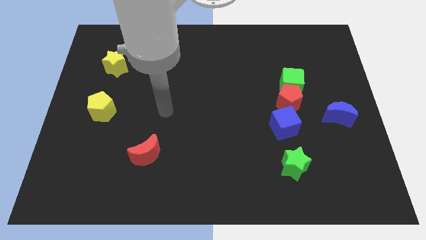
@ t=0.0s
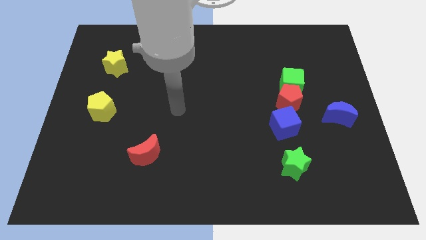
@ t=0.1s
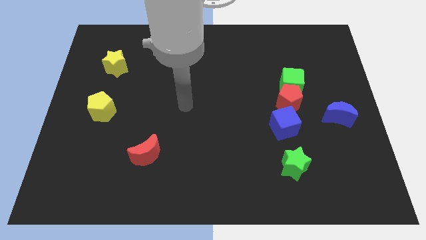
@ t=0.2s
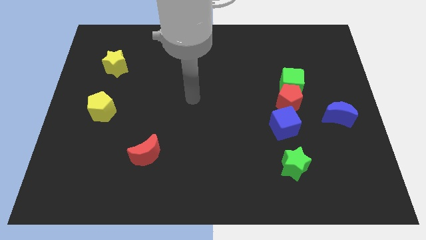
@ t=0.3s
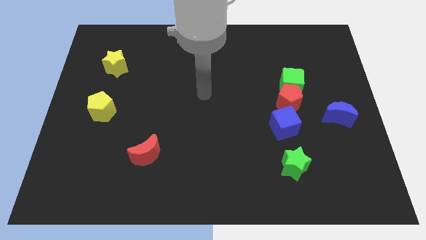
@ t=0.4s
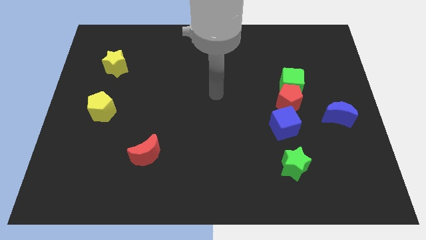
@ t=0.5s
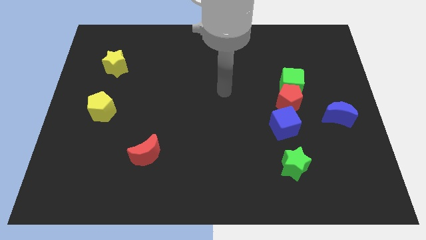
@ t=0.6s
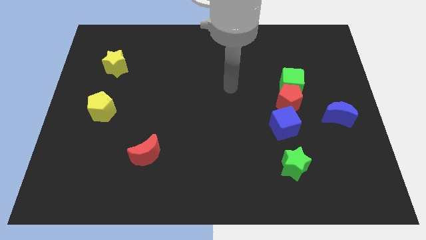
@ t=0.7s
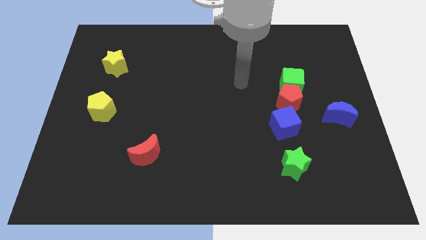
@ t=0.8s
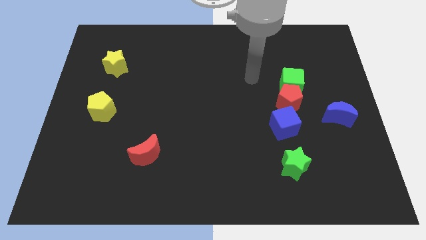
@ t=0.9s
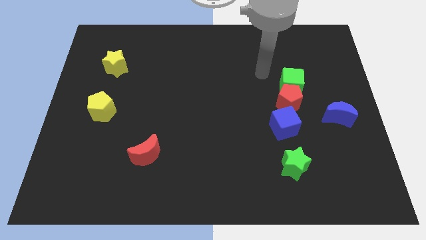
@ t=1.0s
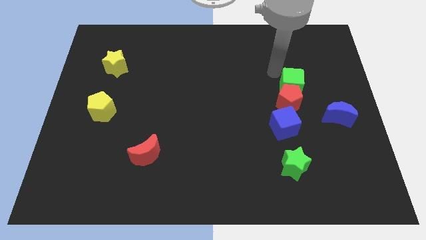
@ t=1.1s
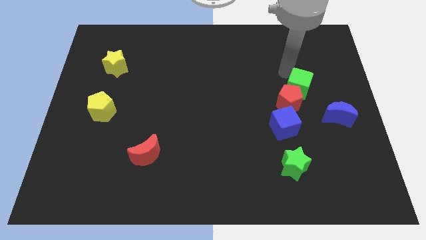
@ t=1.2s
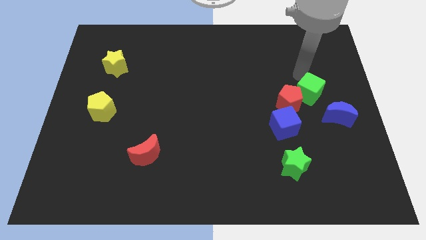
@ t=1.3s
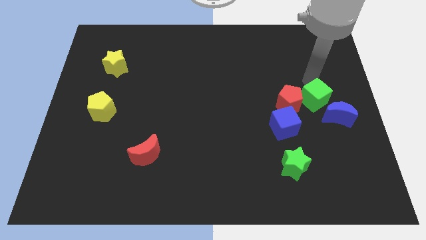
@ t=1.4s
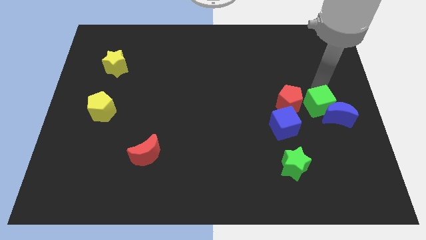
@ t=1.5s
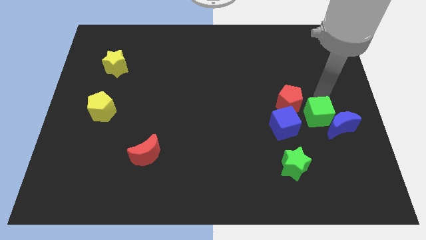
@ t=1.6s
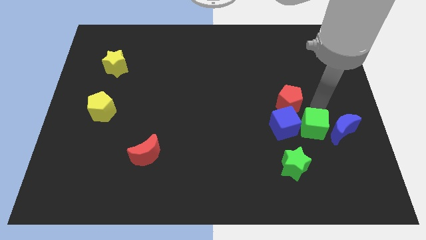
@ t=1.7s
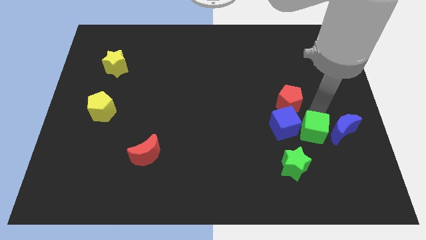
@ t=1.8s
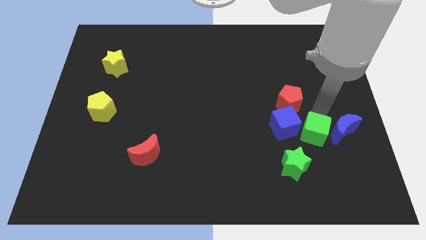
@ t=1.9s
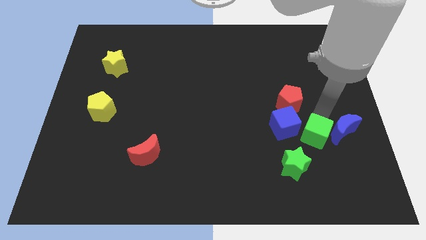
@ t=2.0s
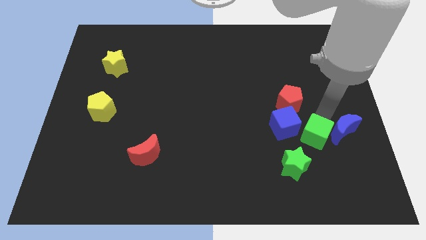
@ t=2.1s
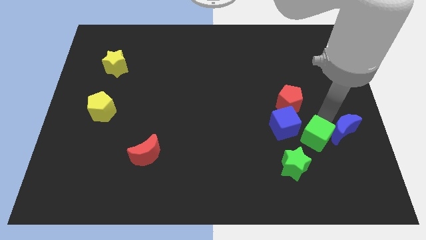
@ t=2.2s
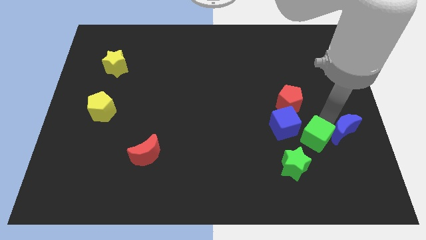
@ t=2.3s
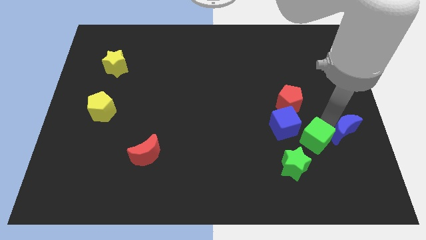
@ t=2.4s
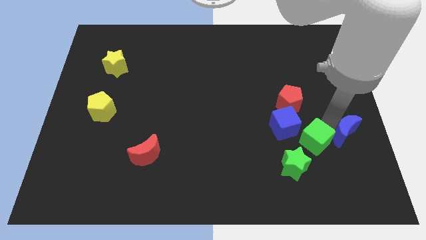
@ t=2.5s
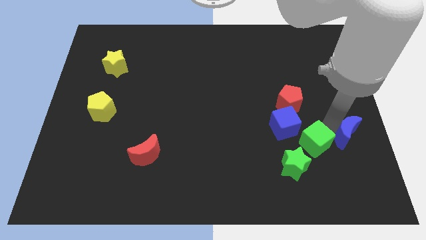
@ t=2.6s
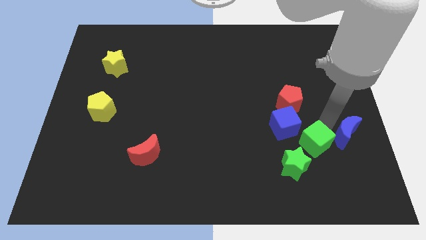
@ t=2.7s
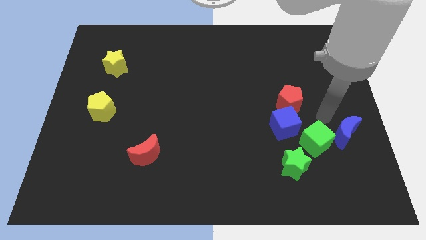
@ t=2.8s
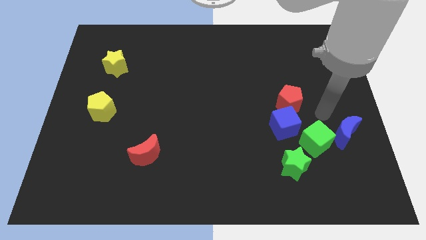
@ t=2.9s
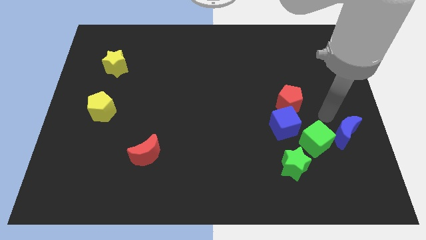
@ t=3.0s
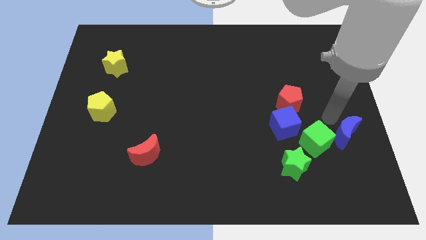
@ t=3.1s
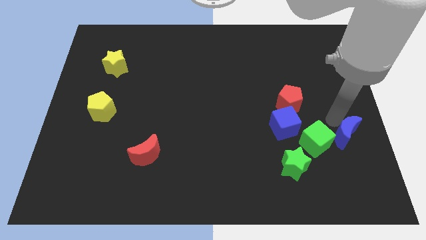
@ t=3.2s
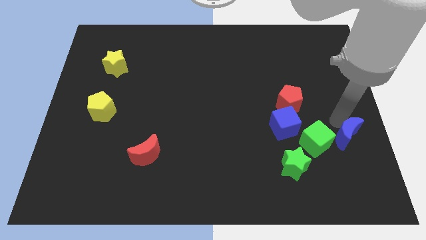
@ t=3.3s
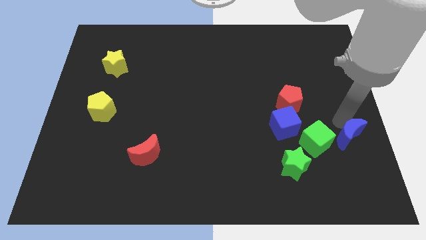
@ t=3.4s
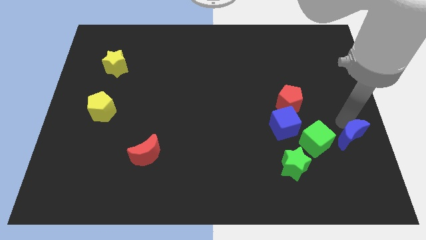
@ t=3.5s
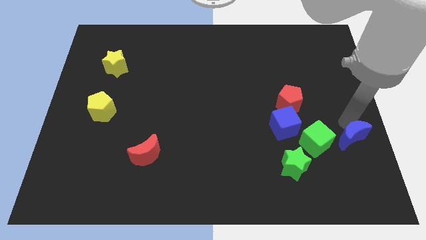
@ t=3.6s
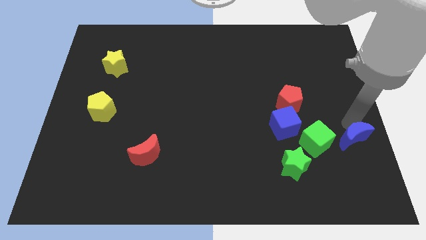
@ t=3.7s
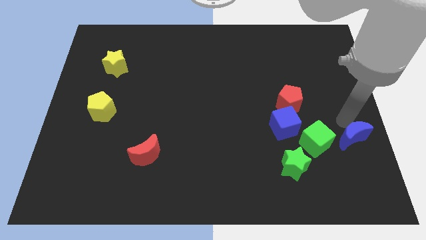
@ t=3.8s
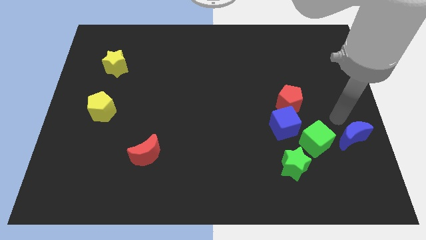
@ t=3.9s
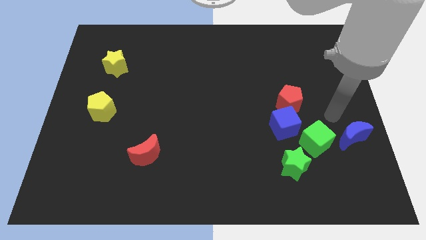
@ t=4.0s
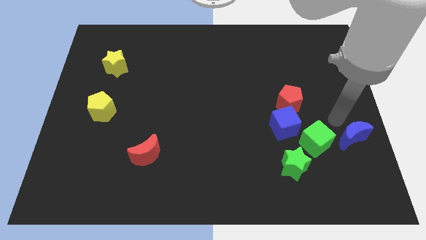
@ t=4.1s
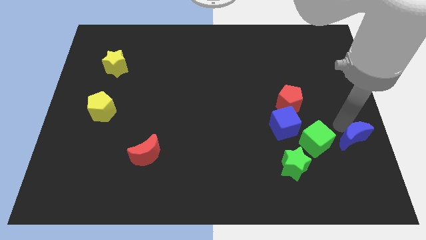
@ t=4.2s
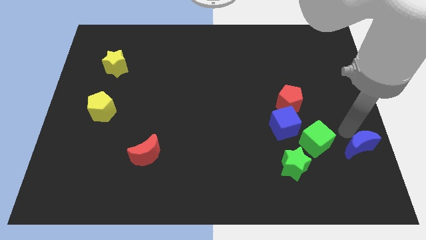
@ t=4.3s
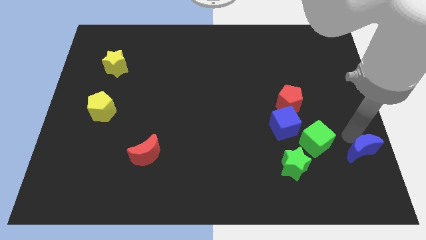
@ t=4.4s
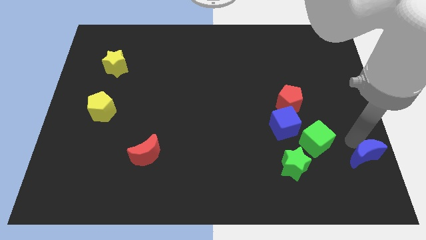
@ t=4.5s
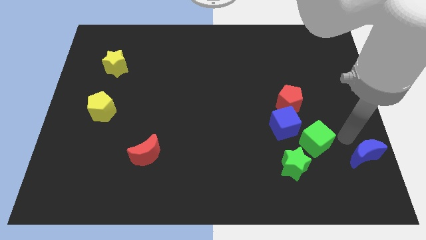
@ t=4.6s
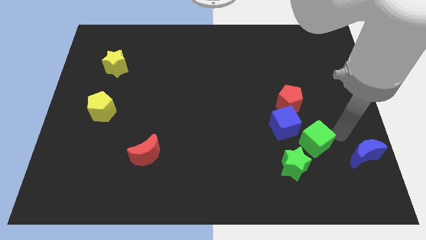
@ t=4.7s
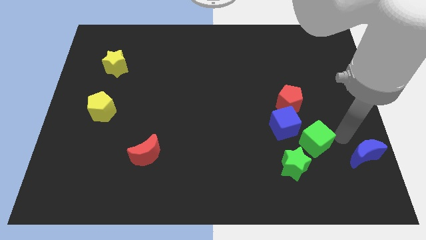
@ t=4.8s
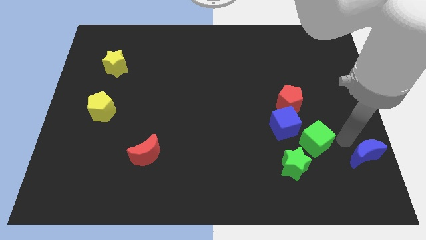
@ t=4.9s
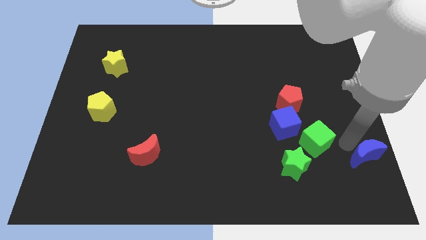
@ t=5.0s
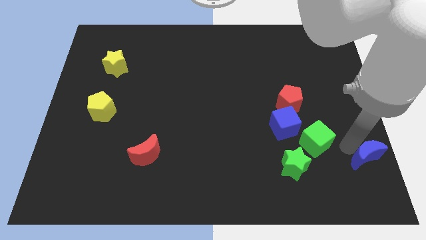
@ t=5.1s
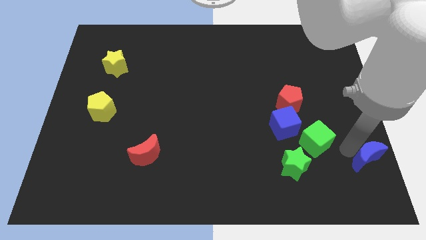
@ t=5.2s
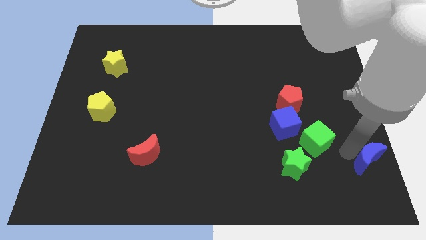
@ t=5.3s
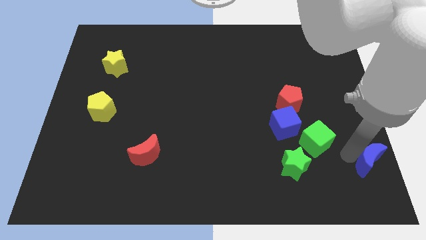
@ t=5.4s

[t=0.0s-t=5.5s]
push the blue moon to the lower right corner

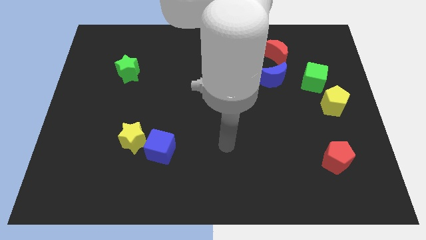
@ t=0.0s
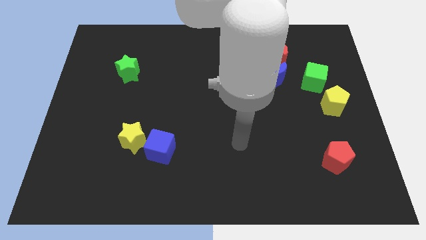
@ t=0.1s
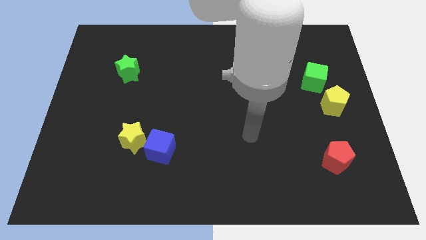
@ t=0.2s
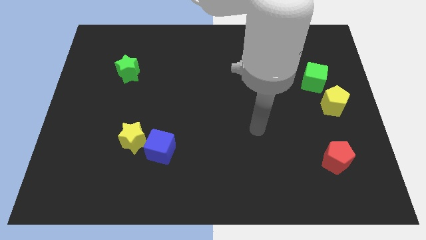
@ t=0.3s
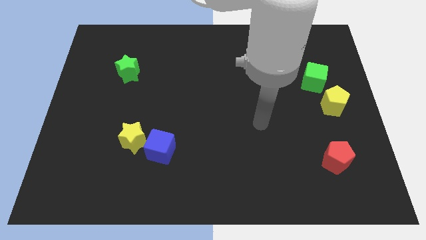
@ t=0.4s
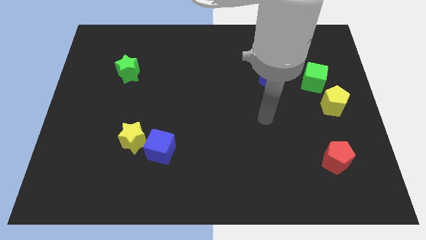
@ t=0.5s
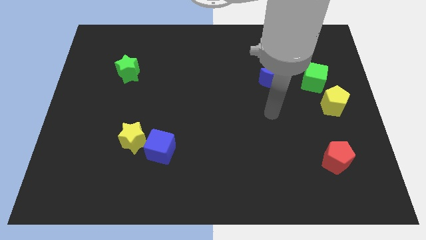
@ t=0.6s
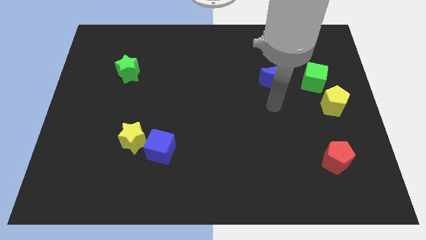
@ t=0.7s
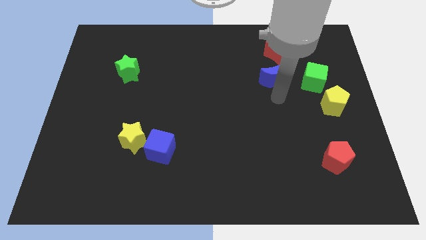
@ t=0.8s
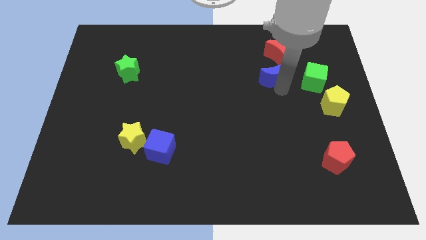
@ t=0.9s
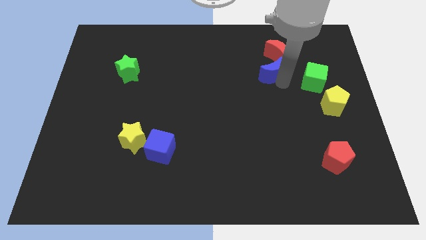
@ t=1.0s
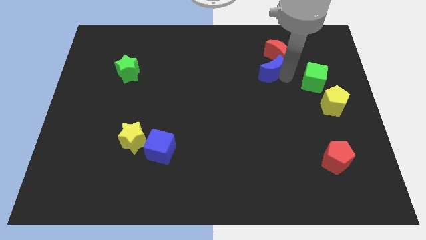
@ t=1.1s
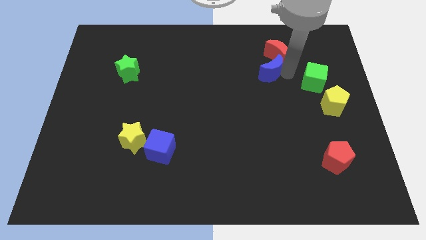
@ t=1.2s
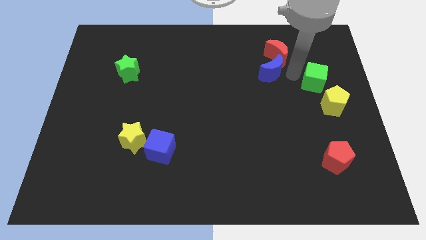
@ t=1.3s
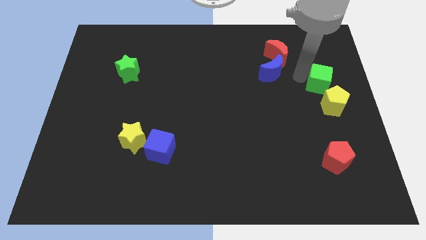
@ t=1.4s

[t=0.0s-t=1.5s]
slide the green cube to the center right
